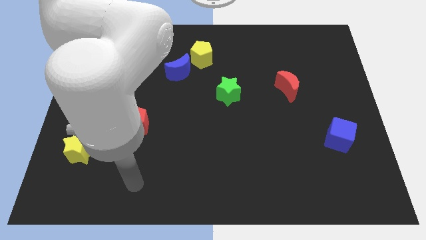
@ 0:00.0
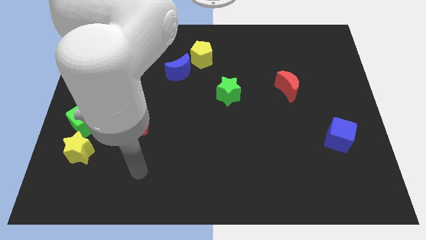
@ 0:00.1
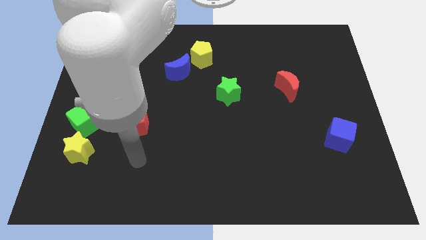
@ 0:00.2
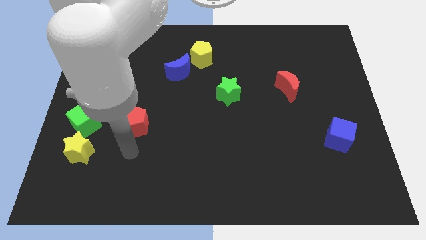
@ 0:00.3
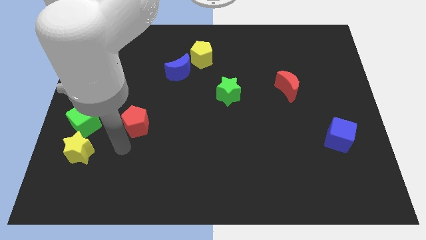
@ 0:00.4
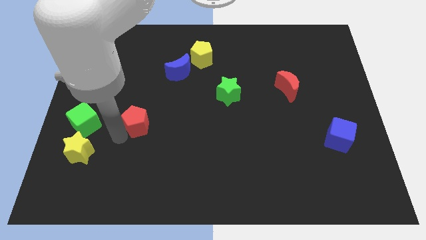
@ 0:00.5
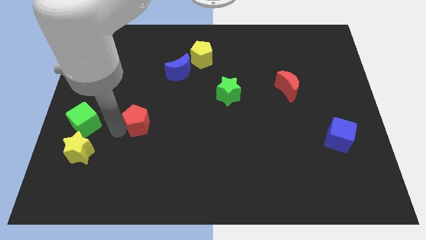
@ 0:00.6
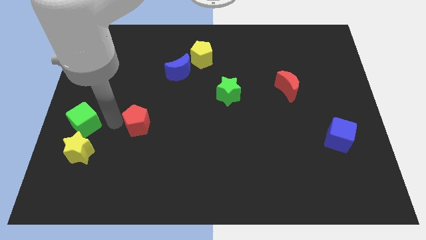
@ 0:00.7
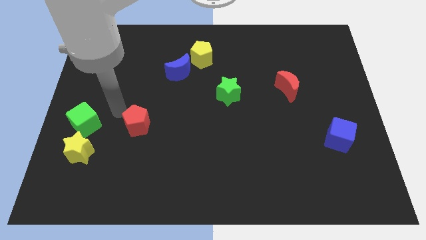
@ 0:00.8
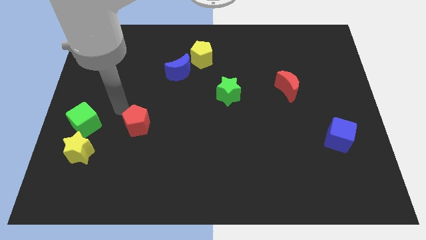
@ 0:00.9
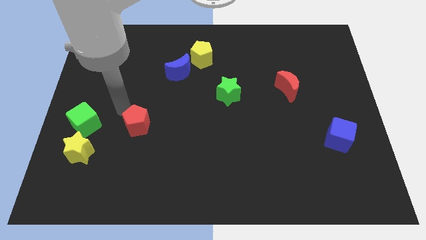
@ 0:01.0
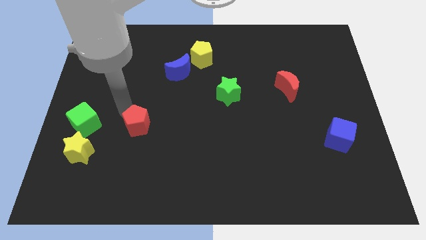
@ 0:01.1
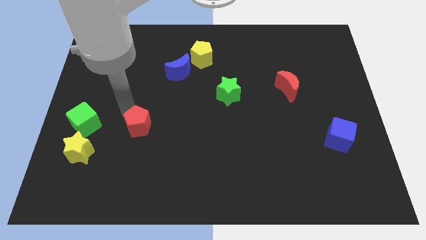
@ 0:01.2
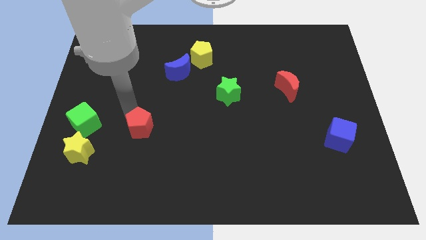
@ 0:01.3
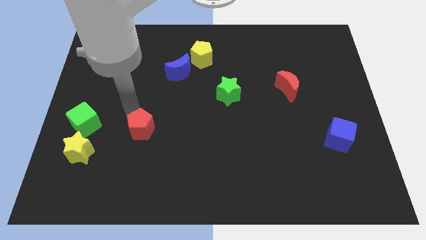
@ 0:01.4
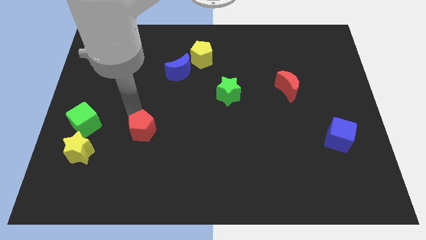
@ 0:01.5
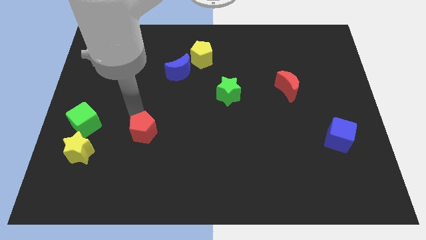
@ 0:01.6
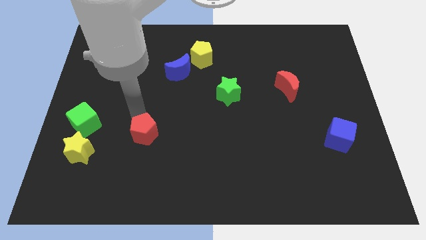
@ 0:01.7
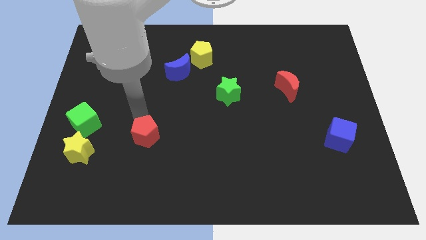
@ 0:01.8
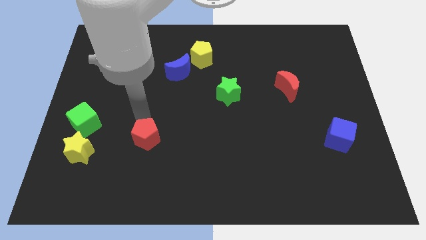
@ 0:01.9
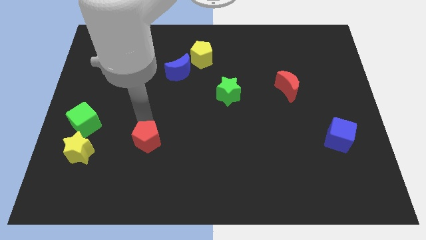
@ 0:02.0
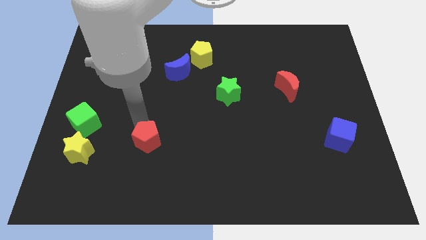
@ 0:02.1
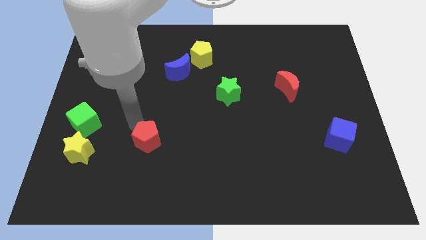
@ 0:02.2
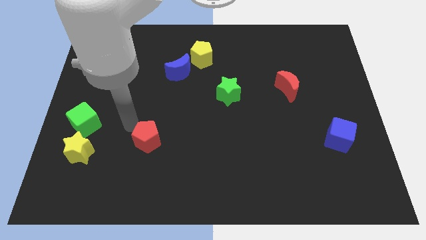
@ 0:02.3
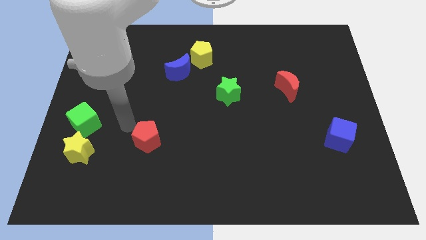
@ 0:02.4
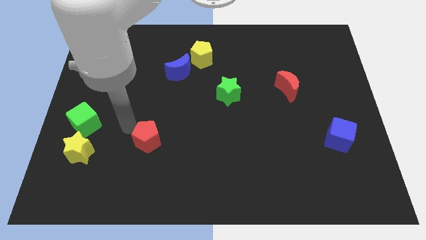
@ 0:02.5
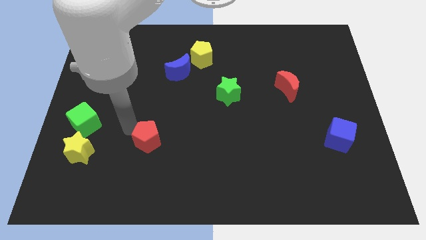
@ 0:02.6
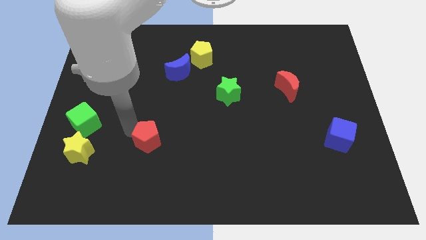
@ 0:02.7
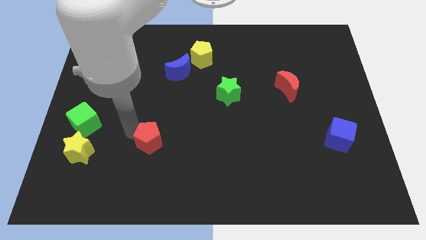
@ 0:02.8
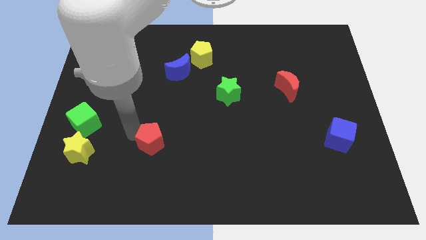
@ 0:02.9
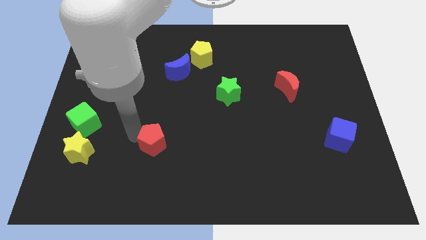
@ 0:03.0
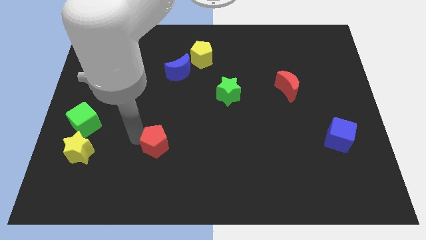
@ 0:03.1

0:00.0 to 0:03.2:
slide the red pentagon somewhat down and to the right diagonally

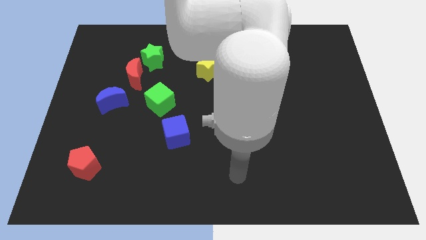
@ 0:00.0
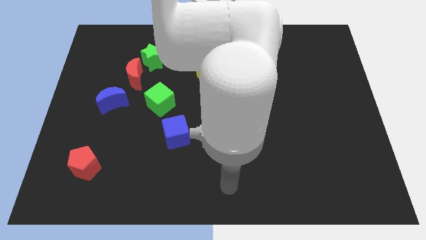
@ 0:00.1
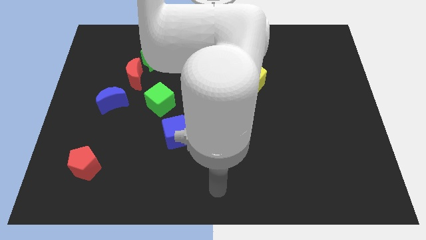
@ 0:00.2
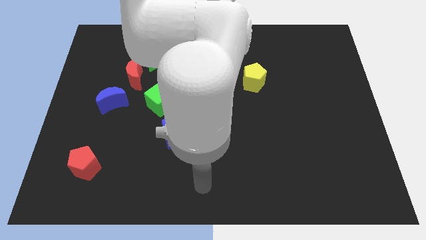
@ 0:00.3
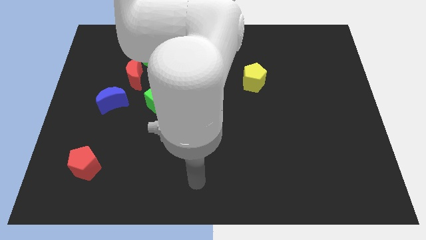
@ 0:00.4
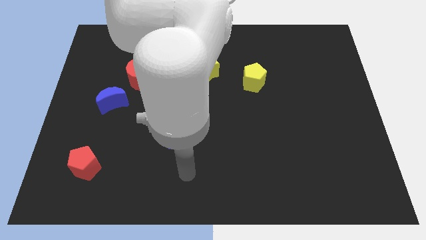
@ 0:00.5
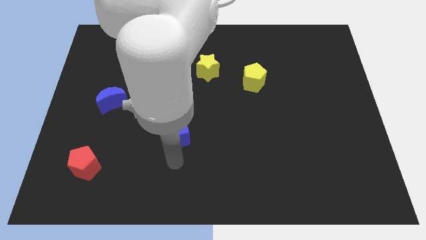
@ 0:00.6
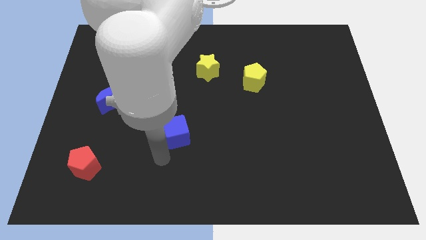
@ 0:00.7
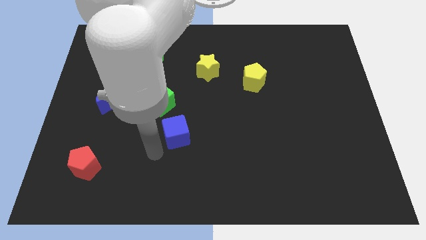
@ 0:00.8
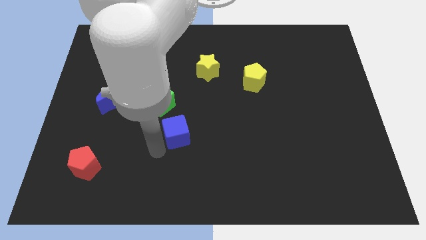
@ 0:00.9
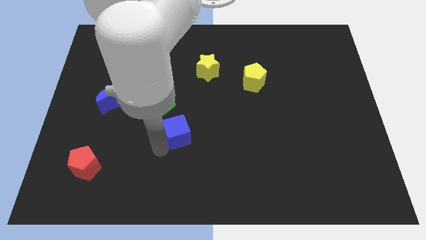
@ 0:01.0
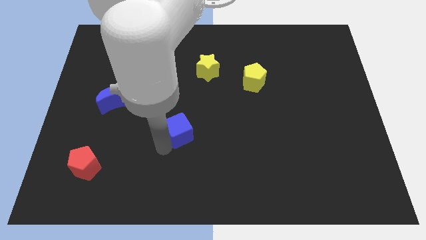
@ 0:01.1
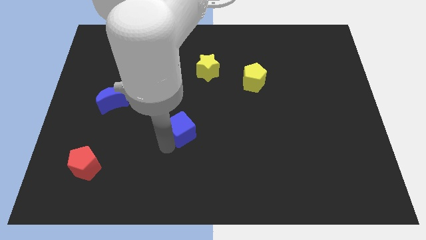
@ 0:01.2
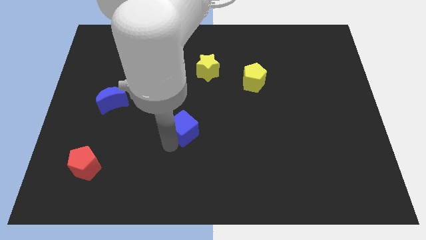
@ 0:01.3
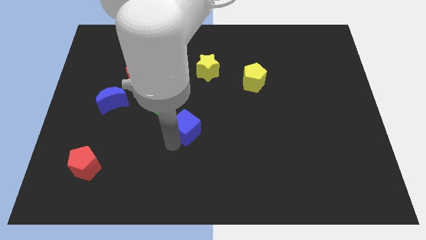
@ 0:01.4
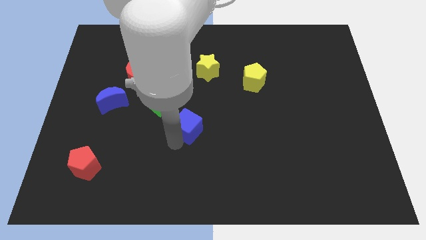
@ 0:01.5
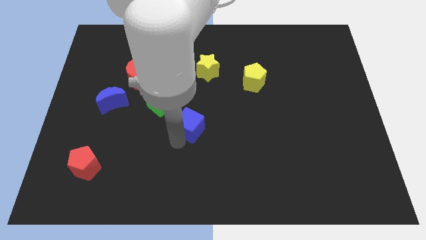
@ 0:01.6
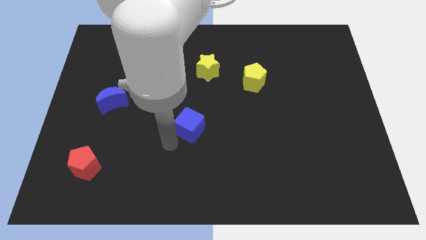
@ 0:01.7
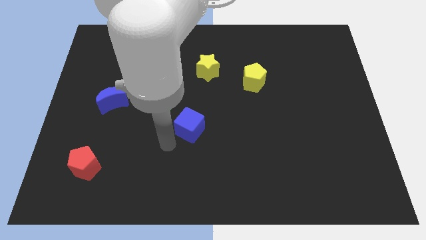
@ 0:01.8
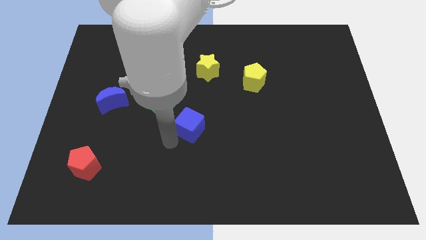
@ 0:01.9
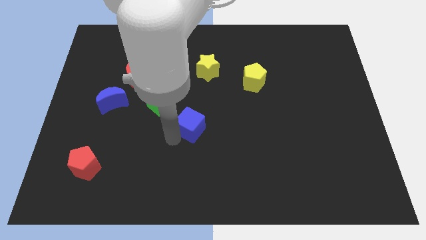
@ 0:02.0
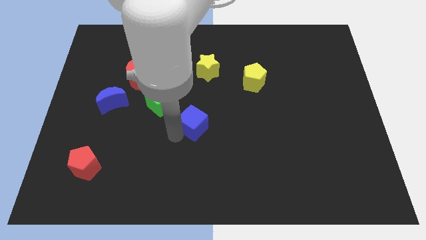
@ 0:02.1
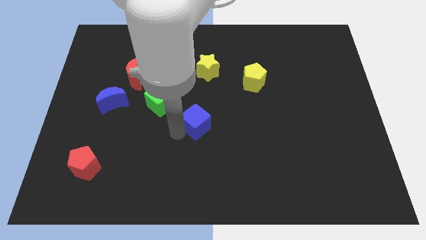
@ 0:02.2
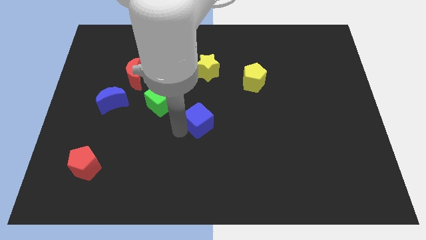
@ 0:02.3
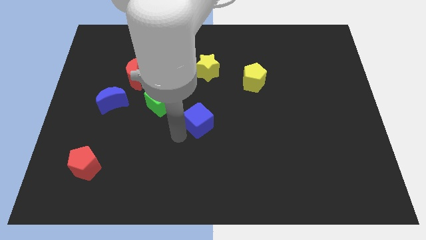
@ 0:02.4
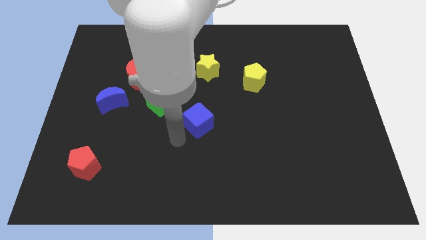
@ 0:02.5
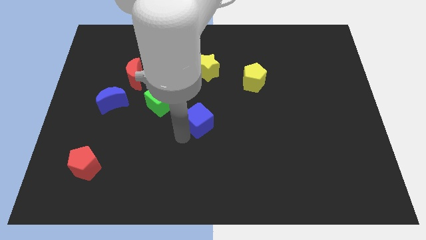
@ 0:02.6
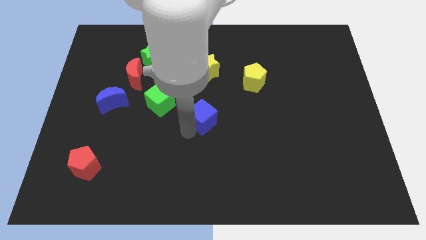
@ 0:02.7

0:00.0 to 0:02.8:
slightly move the blue cube up and then right

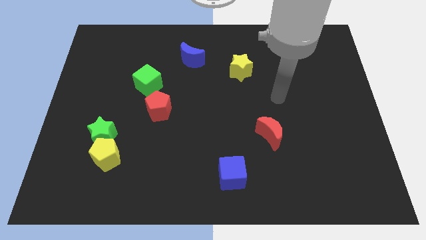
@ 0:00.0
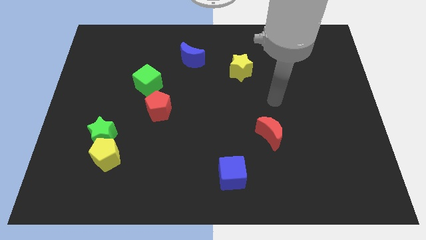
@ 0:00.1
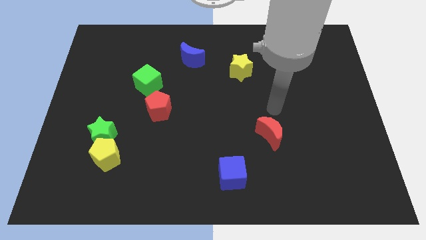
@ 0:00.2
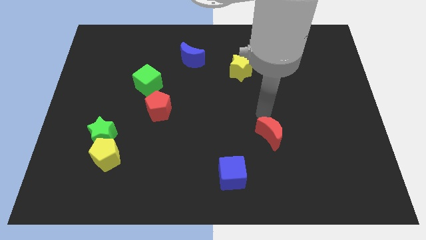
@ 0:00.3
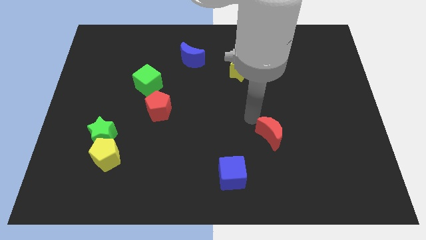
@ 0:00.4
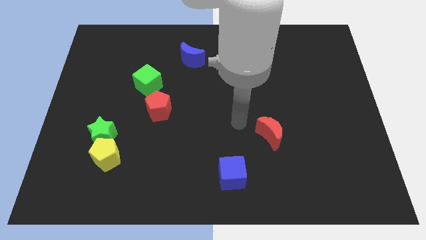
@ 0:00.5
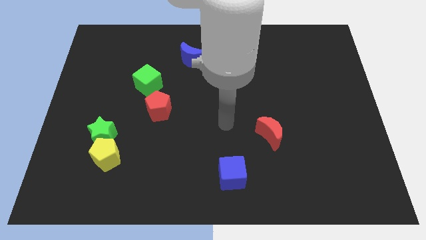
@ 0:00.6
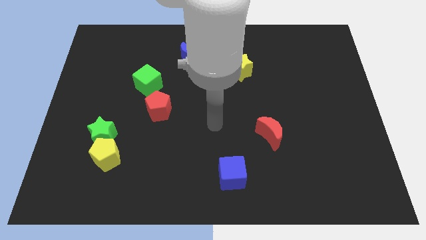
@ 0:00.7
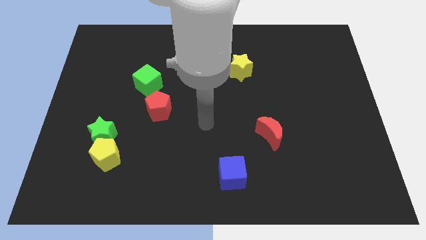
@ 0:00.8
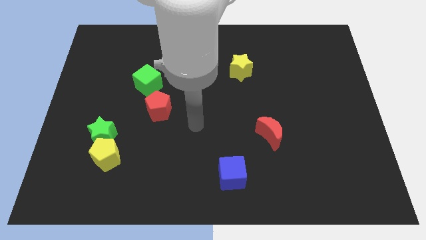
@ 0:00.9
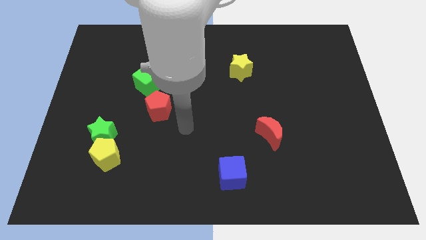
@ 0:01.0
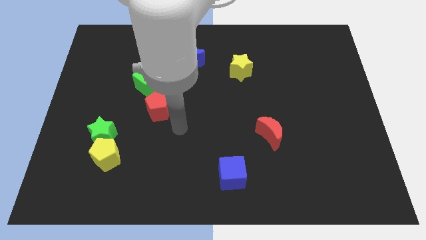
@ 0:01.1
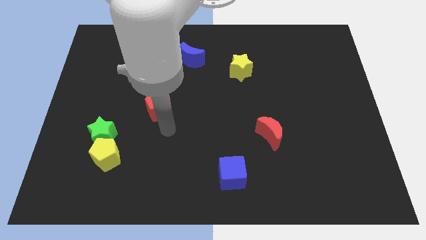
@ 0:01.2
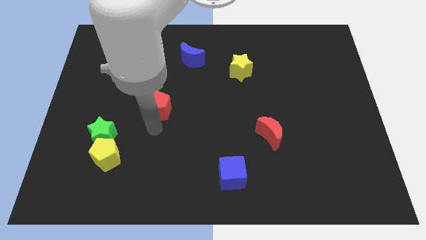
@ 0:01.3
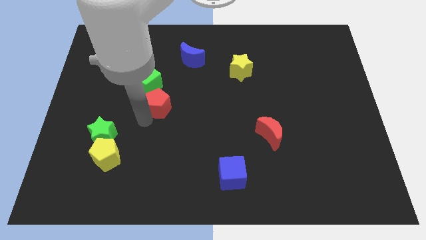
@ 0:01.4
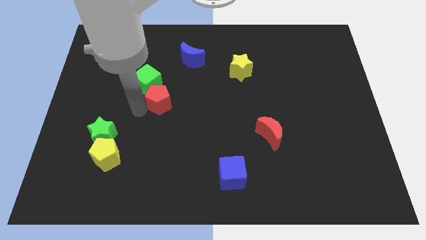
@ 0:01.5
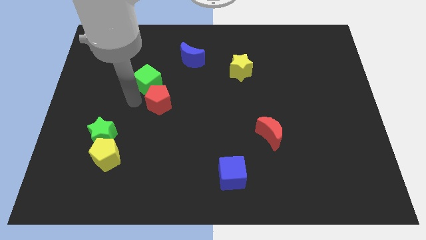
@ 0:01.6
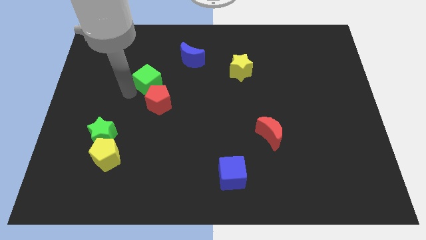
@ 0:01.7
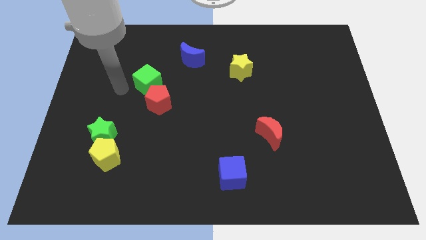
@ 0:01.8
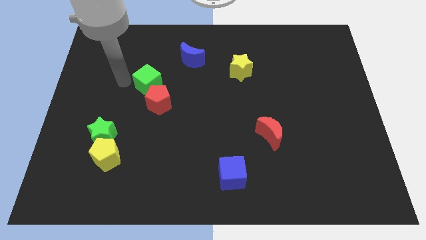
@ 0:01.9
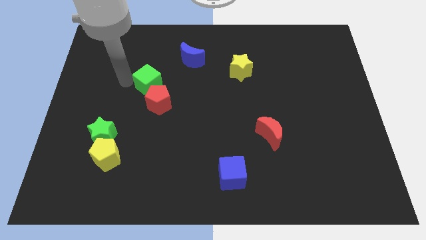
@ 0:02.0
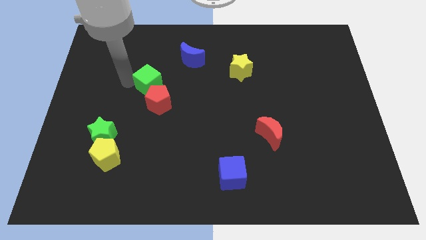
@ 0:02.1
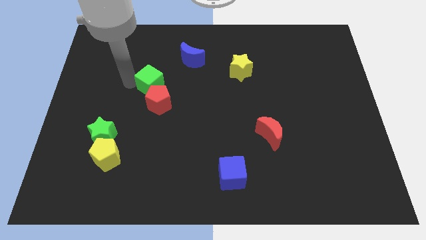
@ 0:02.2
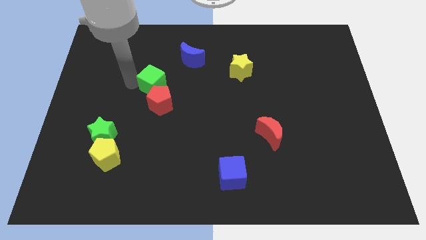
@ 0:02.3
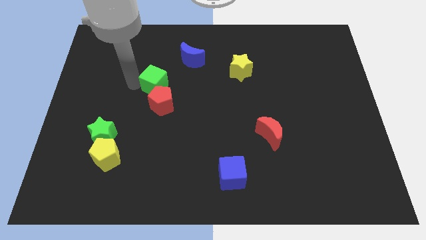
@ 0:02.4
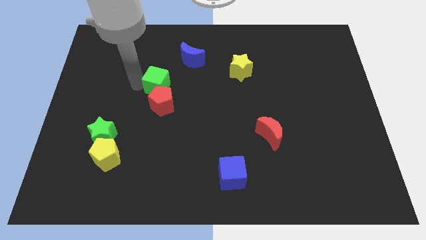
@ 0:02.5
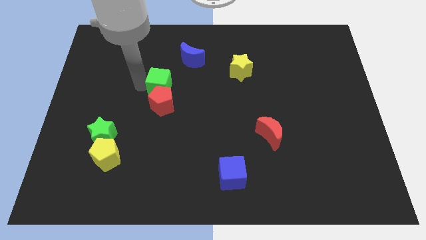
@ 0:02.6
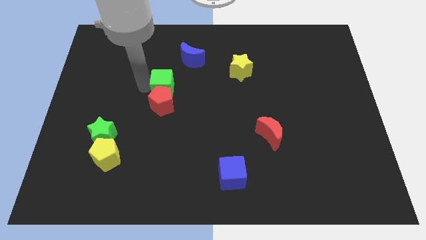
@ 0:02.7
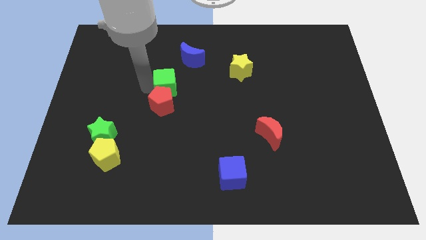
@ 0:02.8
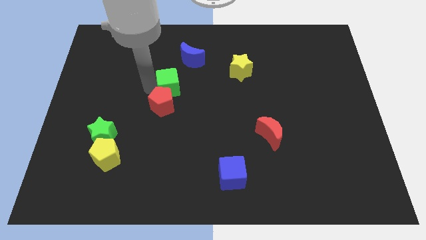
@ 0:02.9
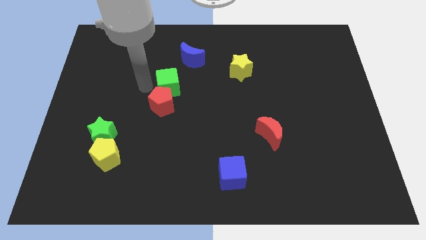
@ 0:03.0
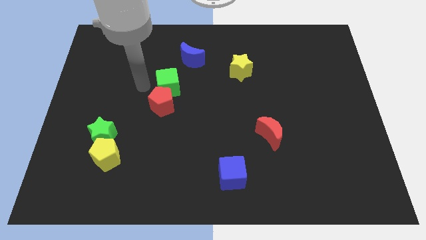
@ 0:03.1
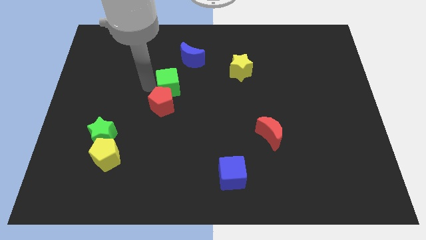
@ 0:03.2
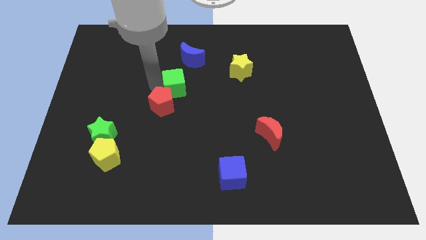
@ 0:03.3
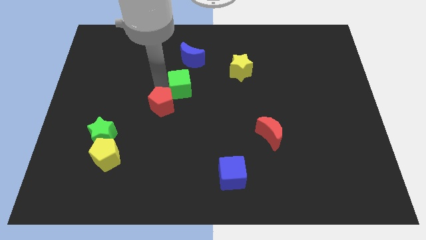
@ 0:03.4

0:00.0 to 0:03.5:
move the green cube to the right a little bit
